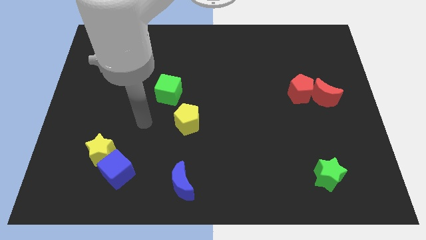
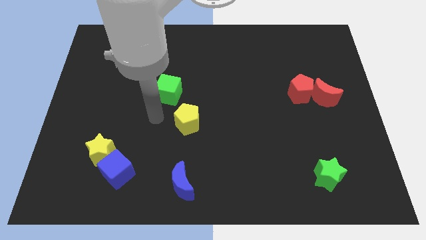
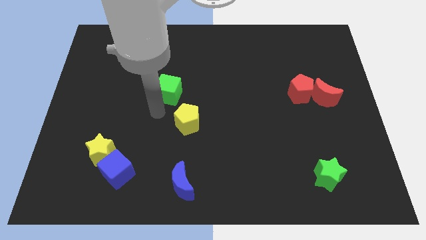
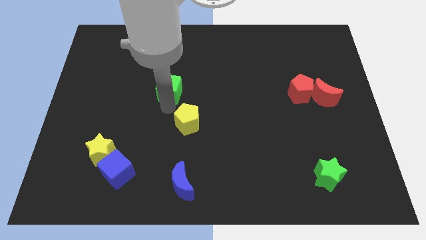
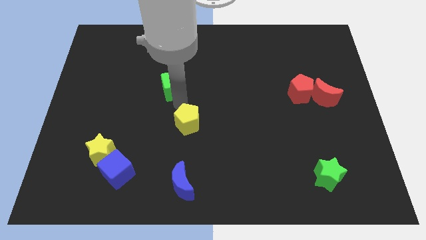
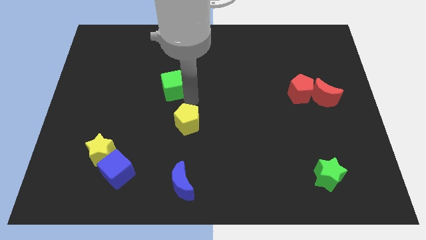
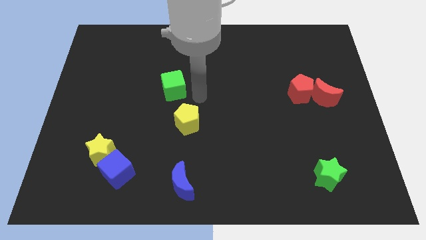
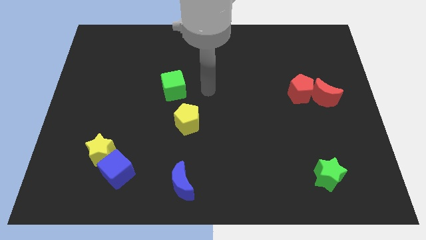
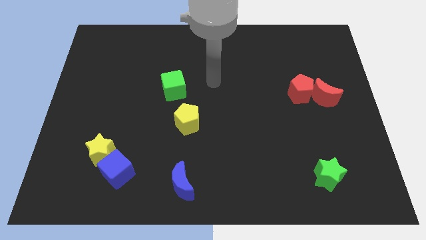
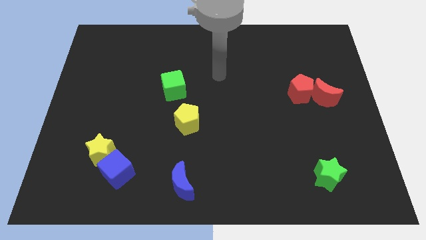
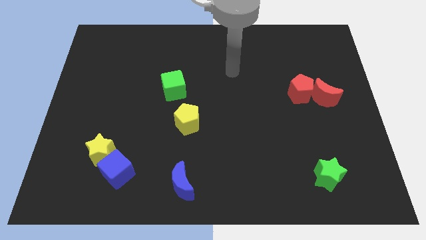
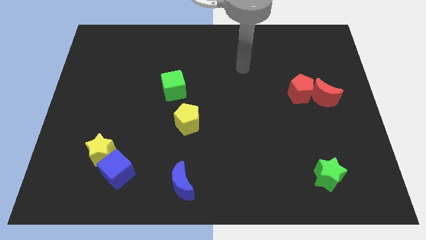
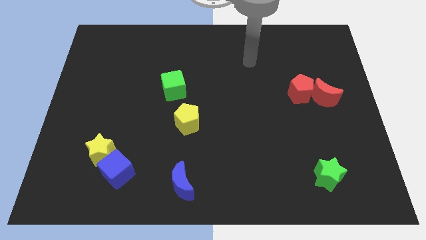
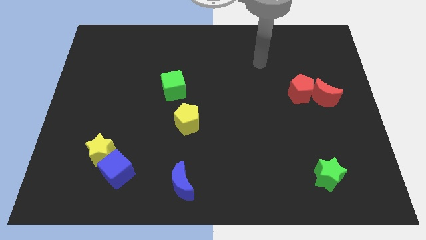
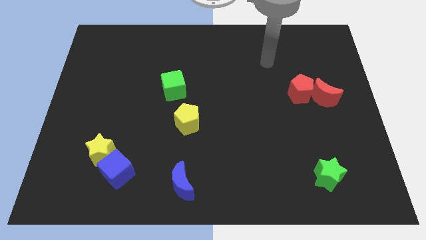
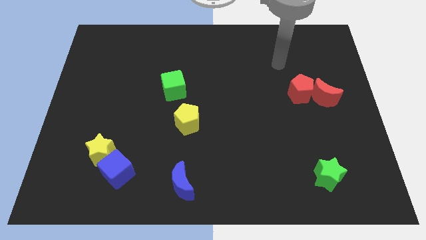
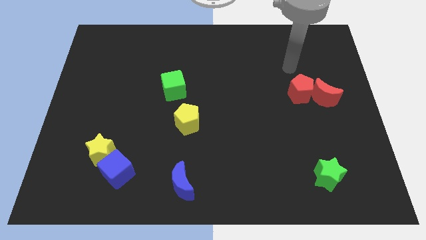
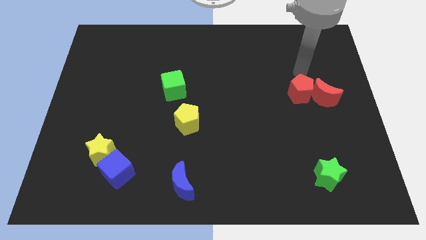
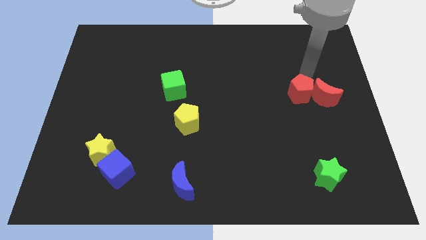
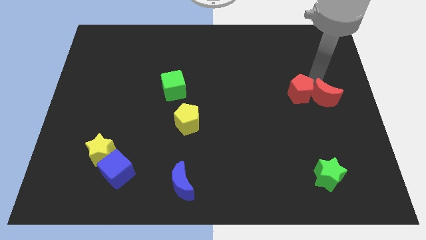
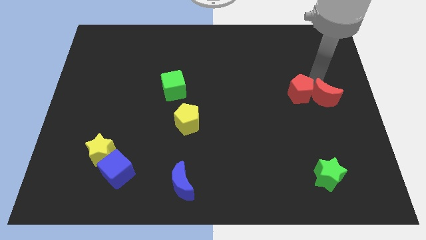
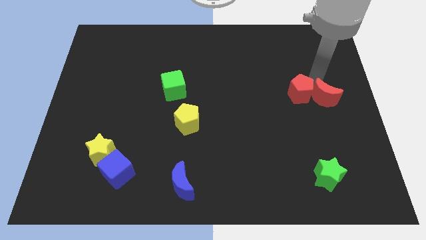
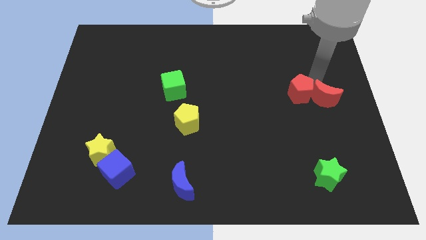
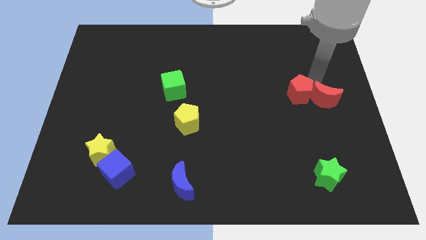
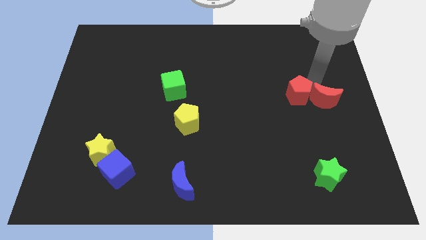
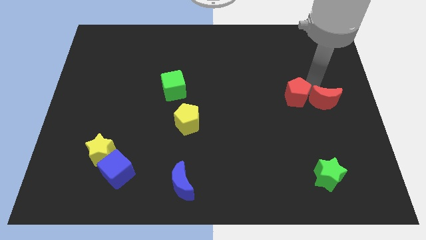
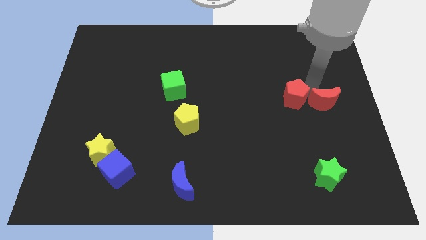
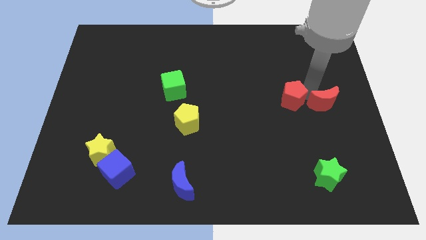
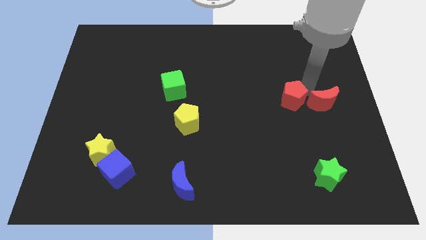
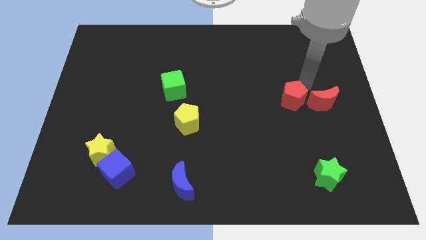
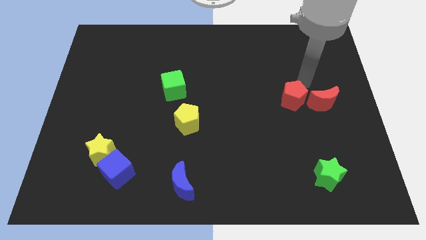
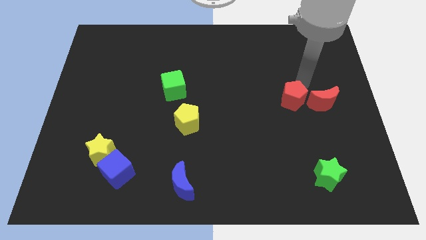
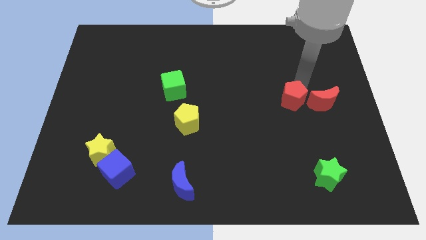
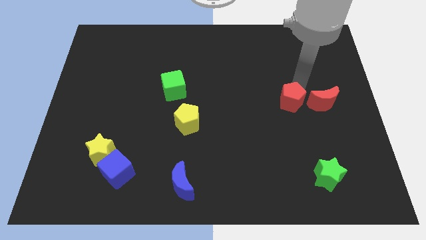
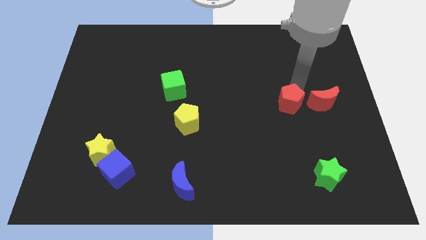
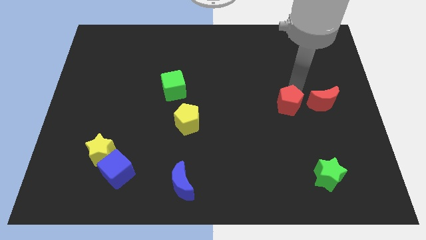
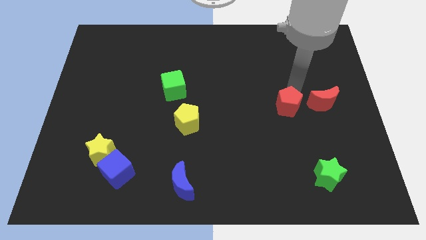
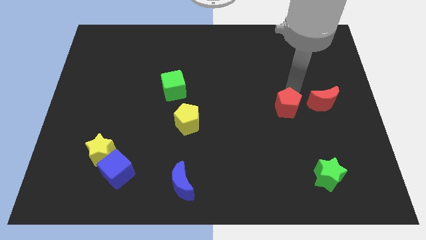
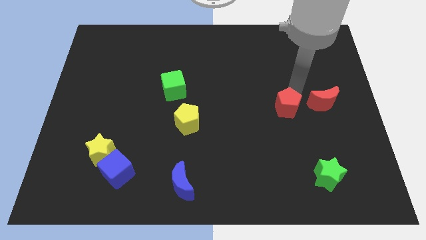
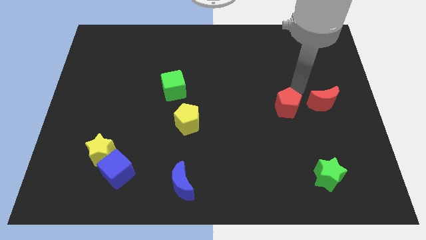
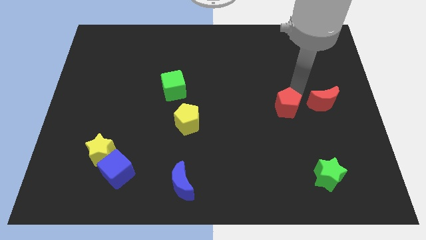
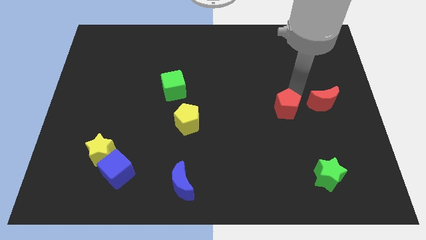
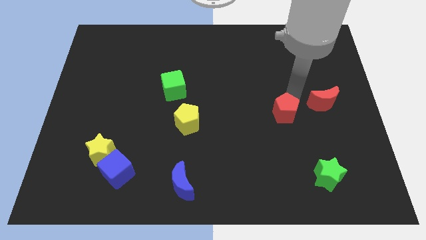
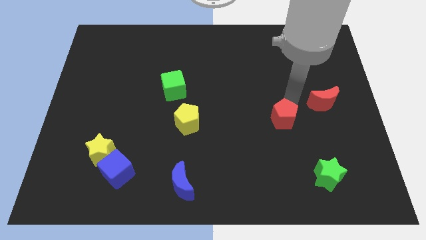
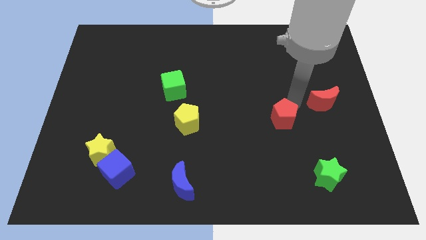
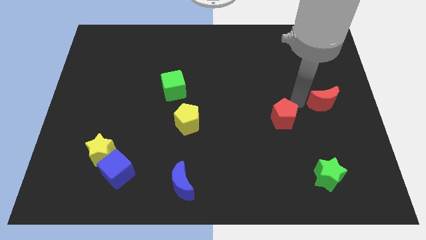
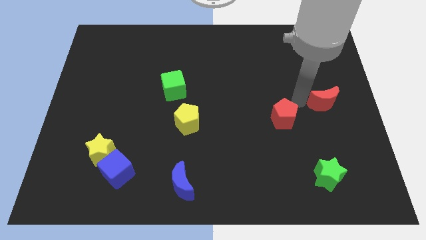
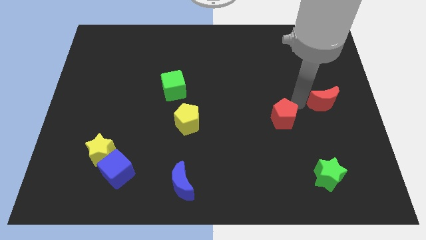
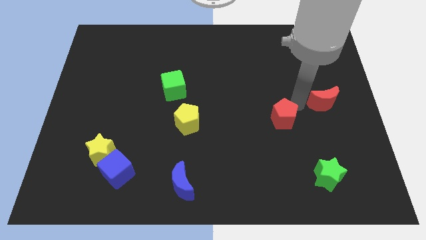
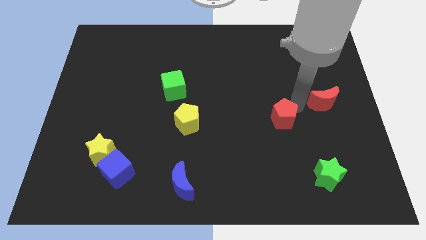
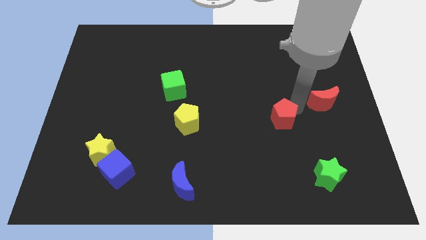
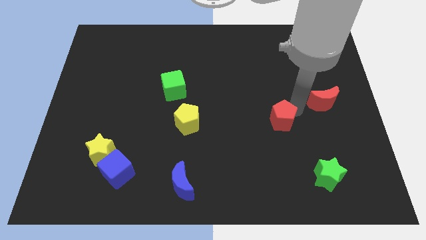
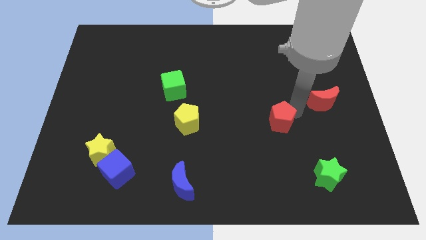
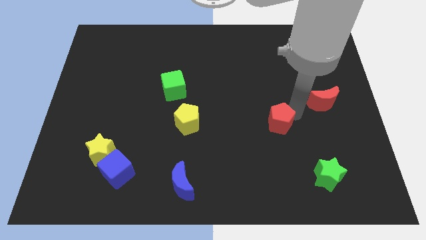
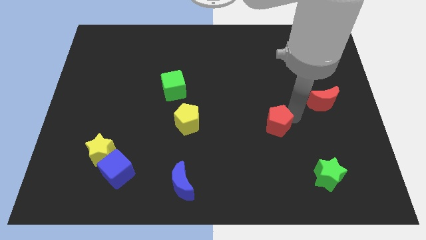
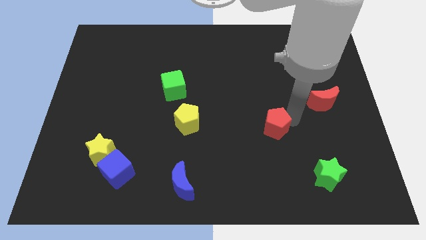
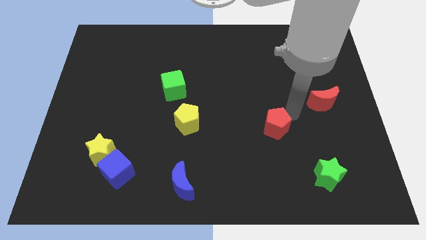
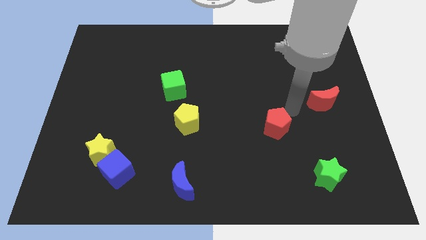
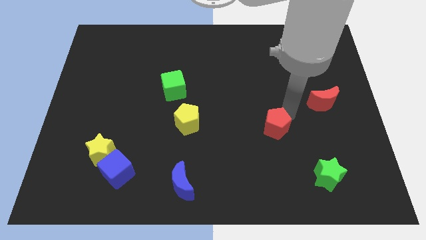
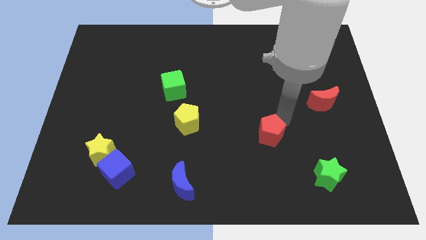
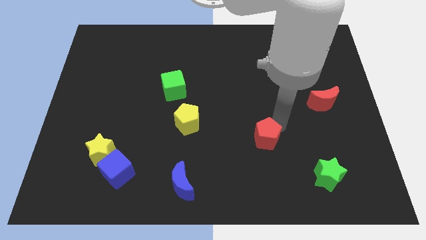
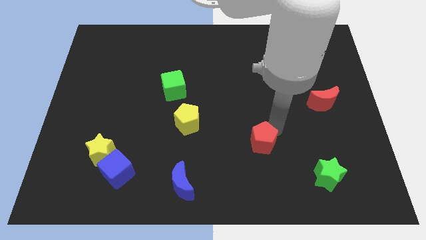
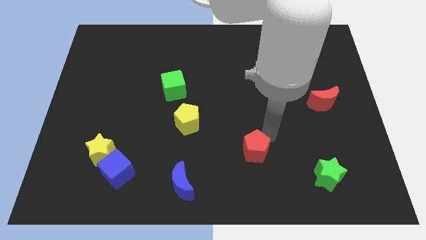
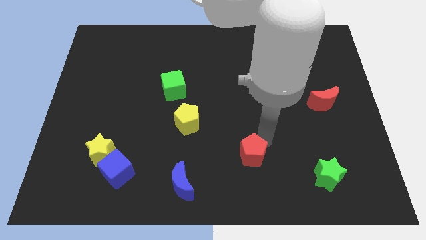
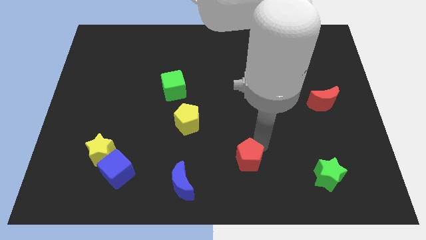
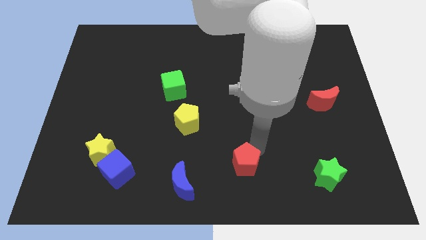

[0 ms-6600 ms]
move the red pentagon to the bottom side
